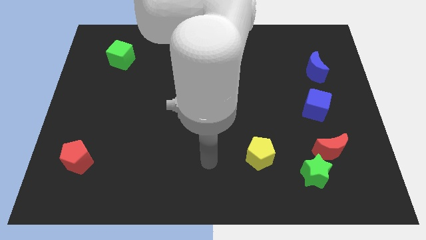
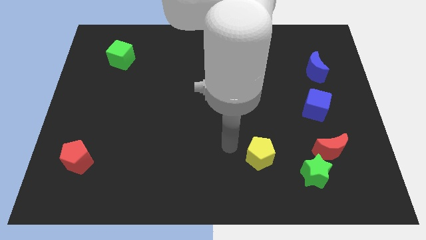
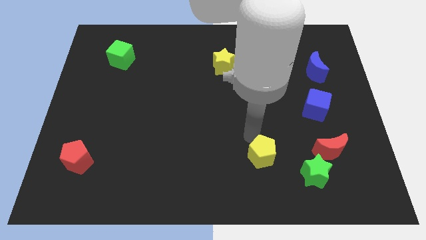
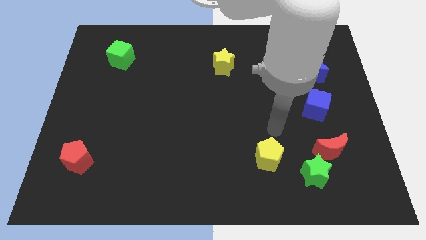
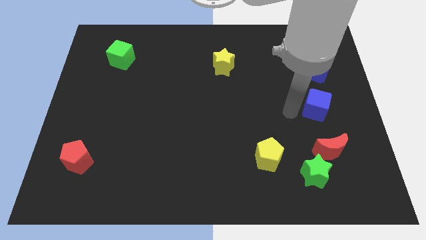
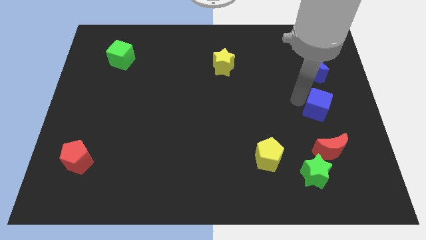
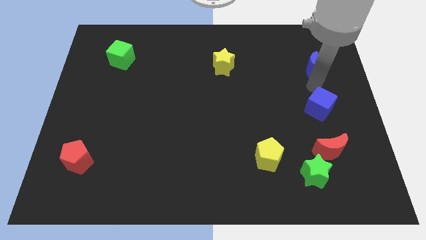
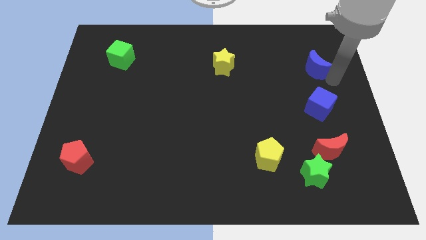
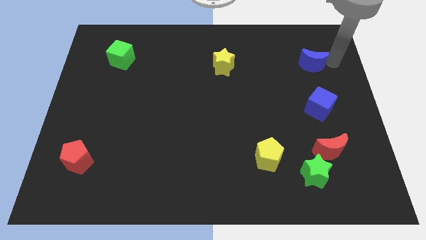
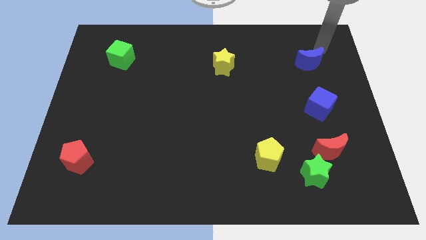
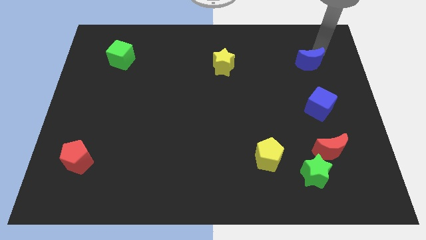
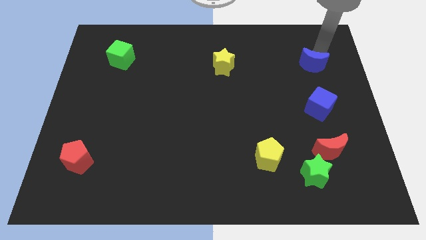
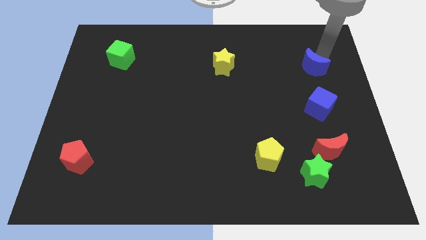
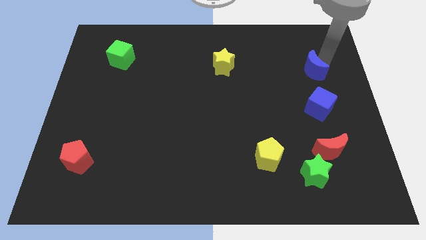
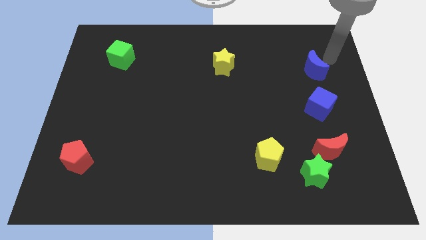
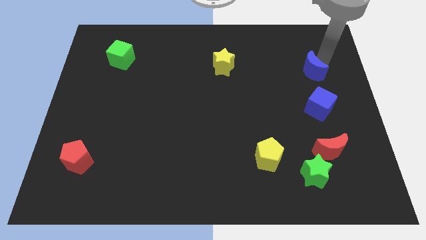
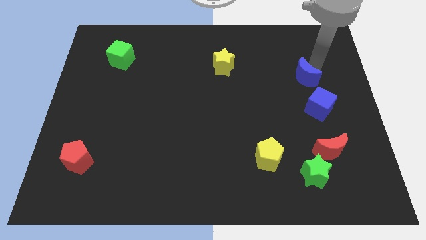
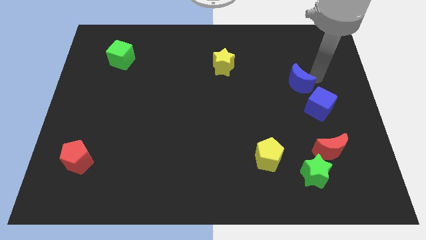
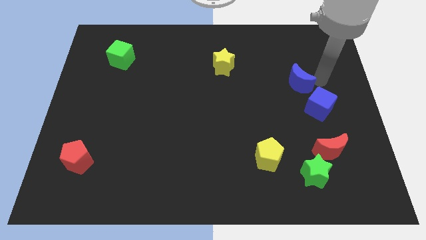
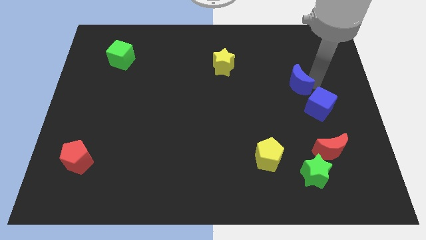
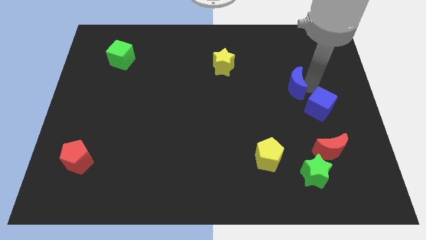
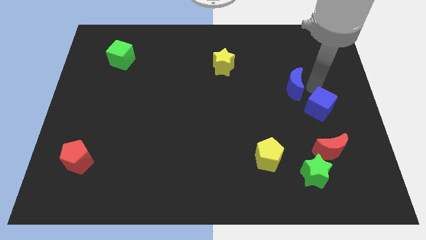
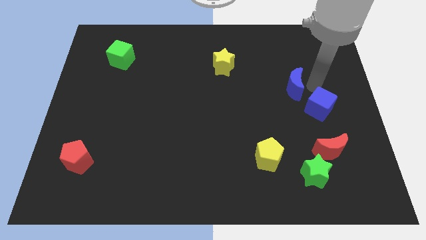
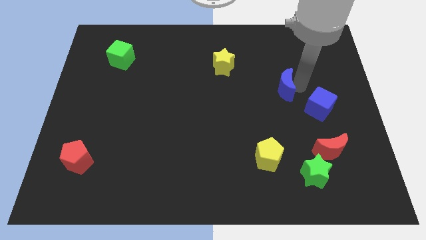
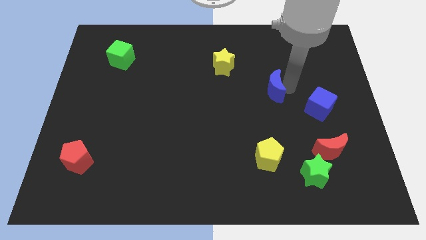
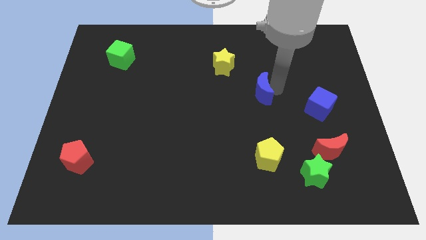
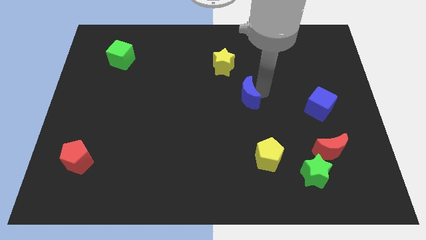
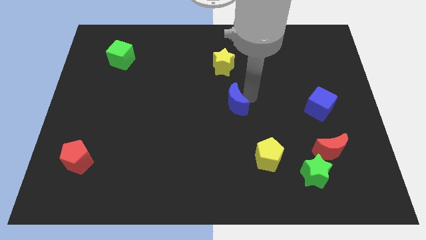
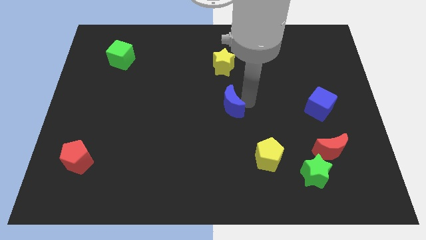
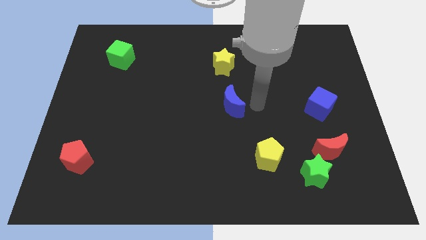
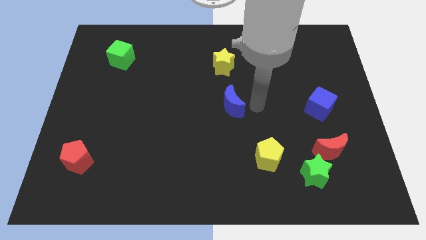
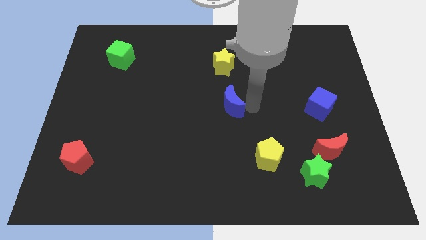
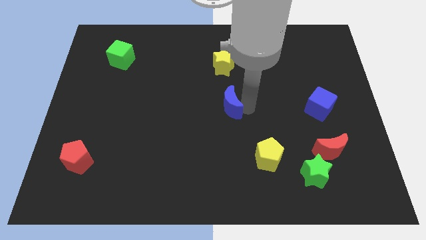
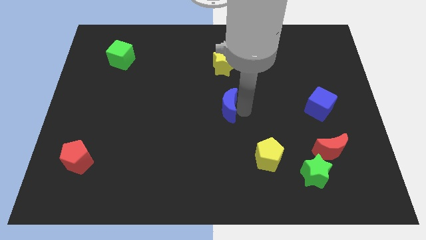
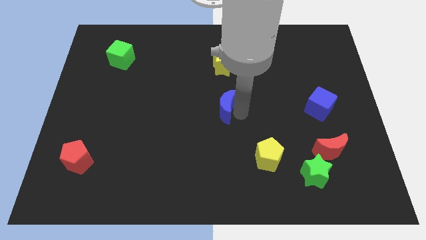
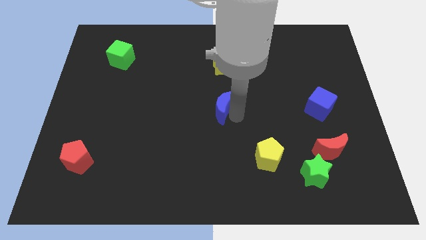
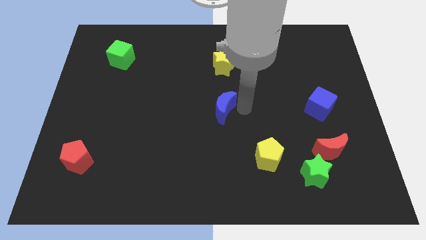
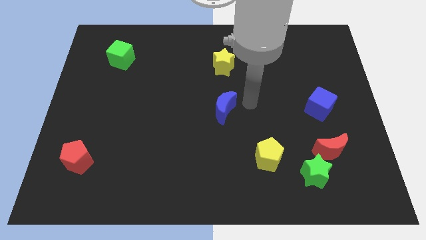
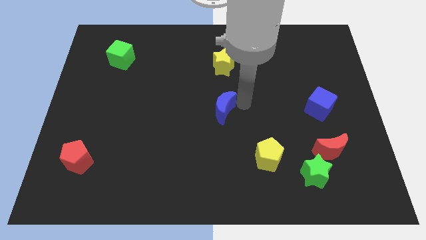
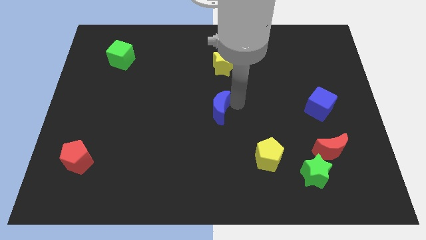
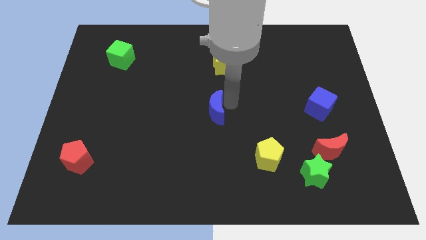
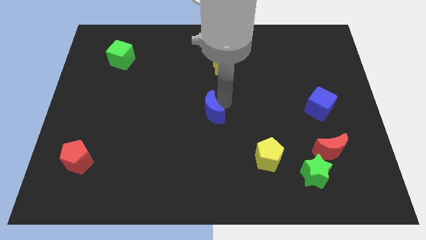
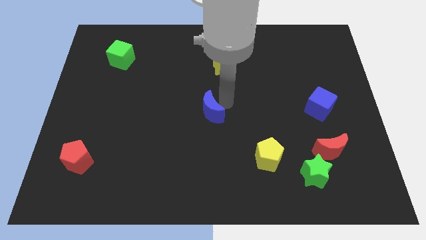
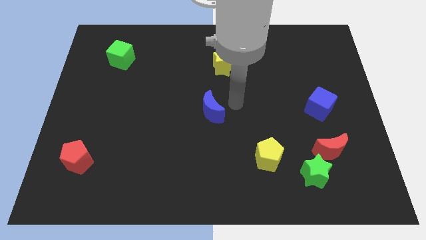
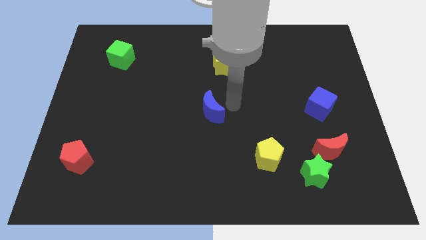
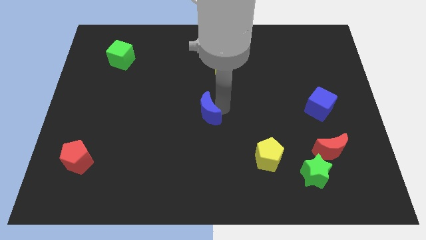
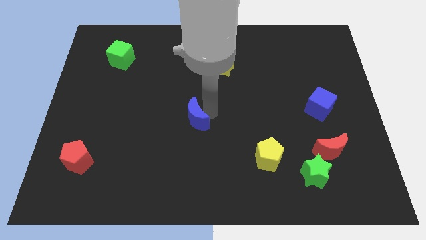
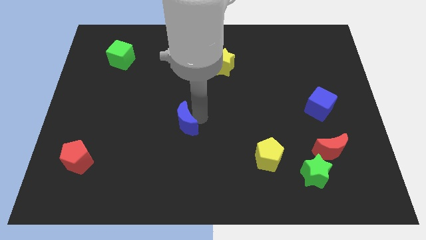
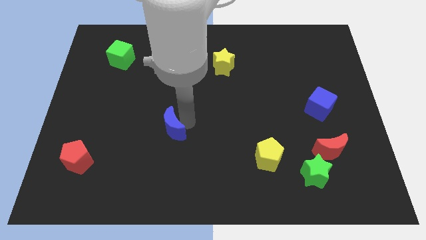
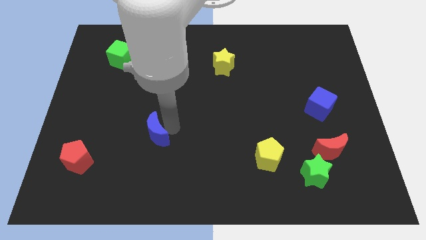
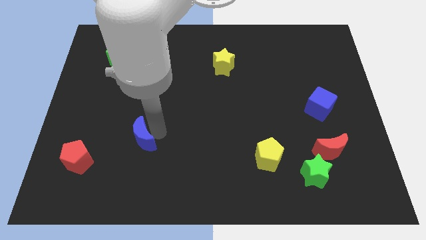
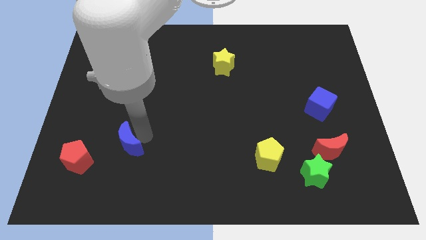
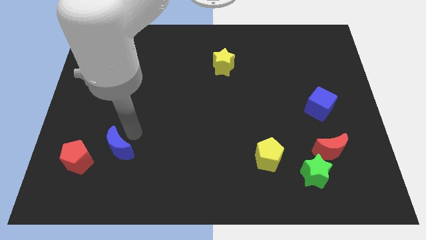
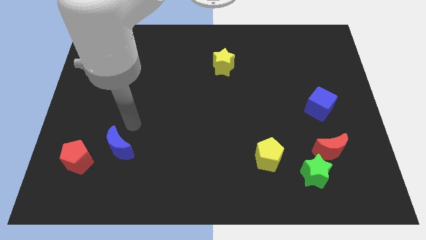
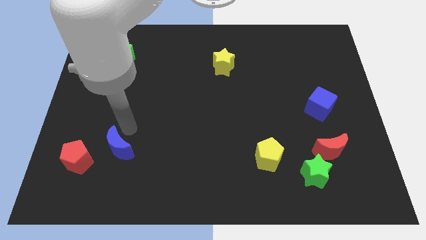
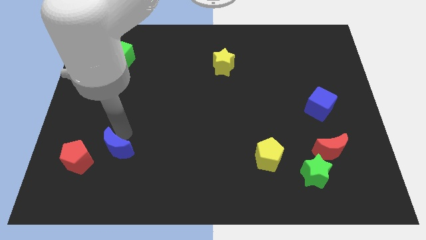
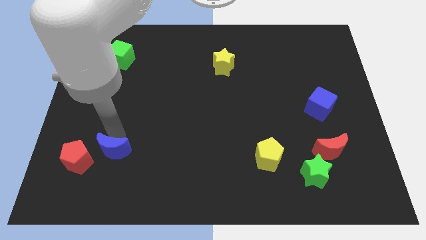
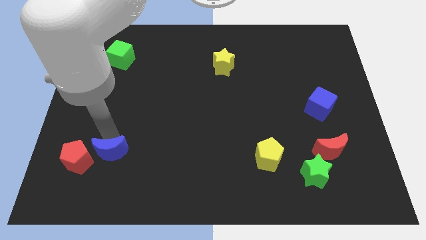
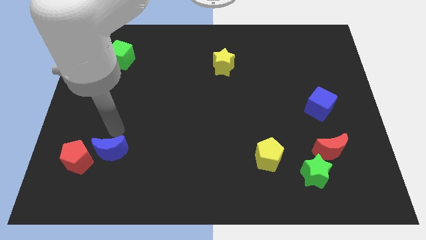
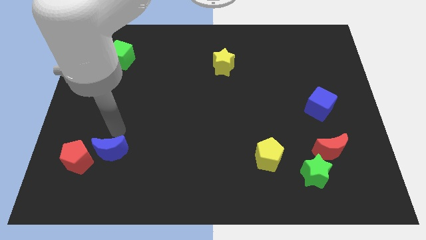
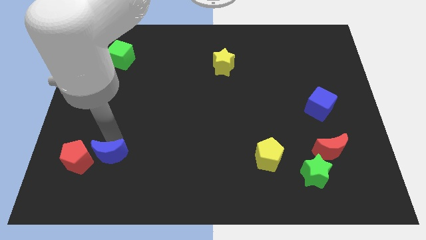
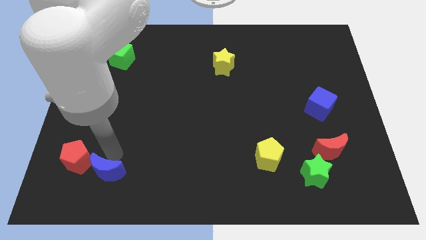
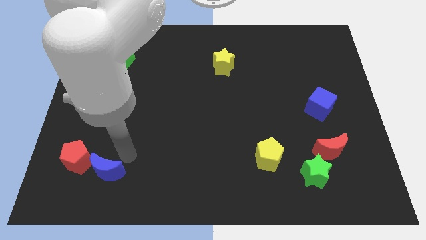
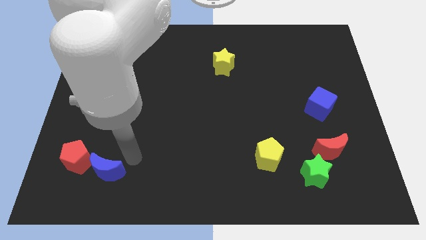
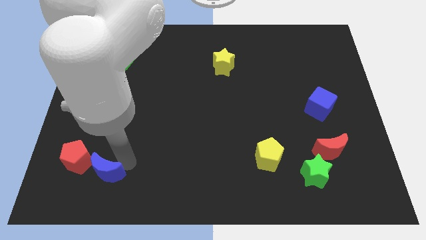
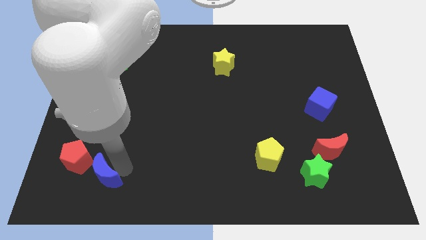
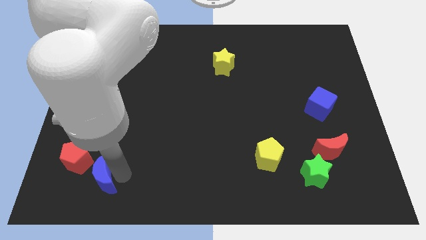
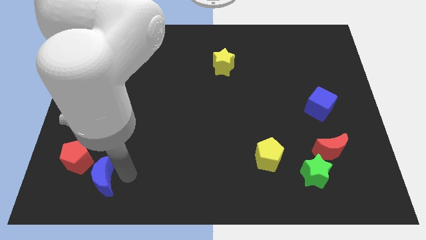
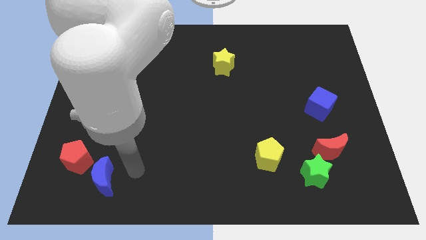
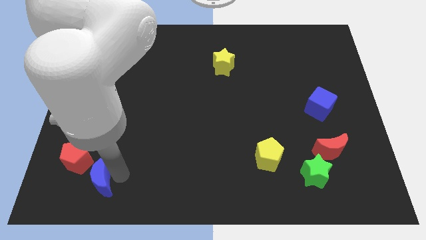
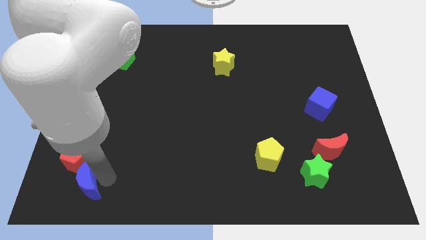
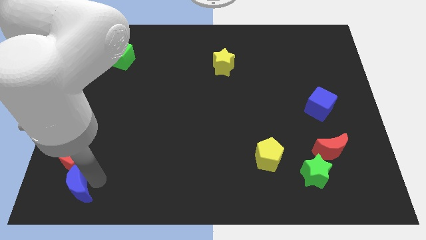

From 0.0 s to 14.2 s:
put the blue moon to the lower left corner
